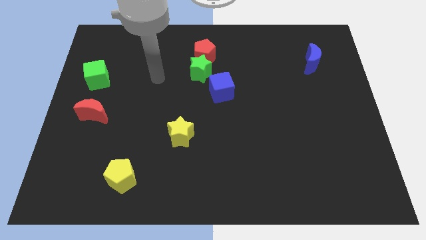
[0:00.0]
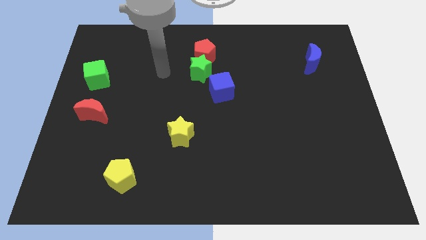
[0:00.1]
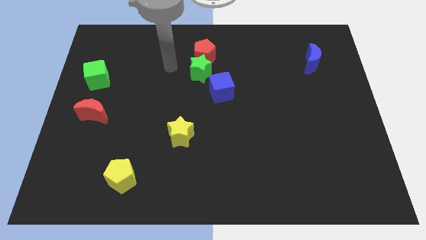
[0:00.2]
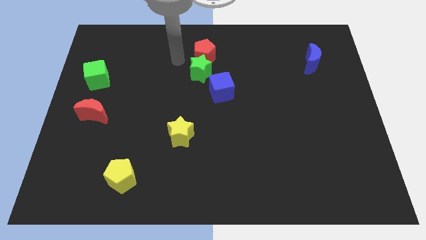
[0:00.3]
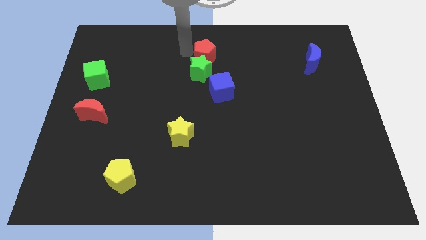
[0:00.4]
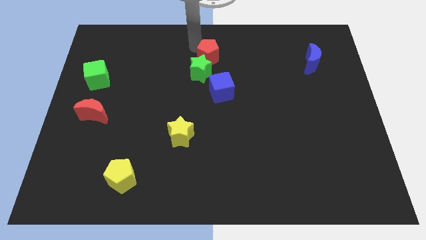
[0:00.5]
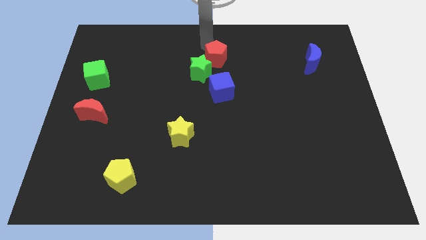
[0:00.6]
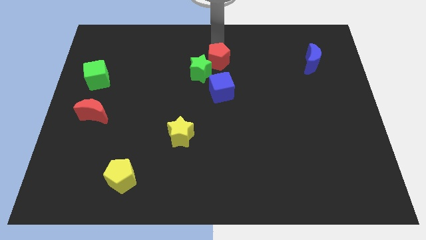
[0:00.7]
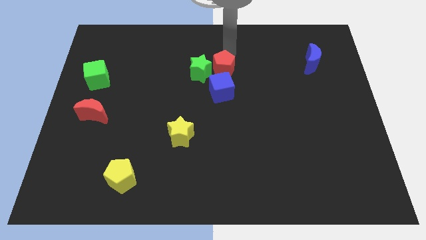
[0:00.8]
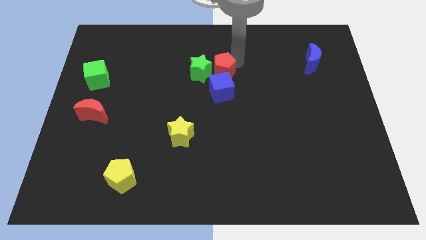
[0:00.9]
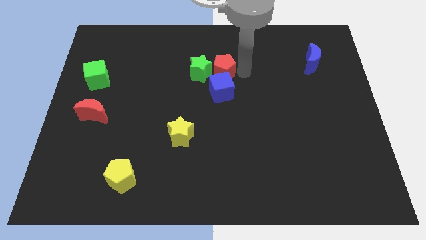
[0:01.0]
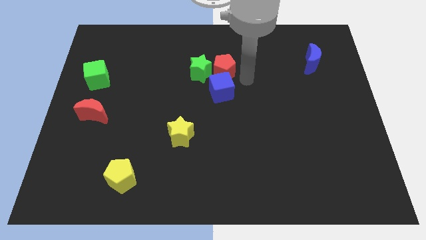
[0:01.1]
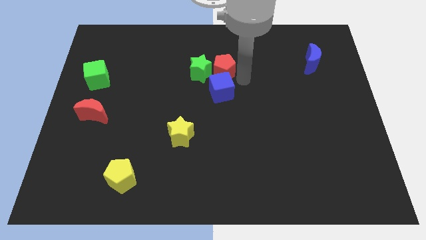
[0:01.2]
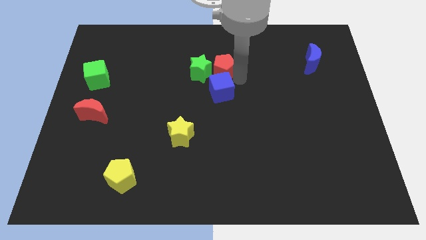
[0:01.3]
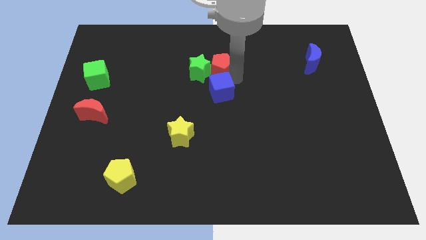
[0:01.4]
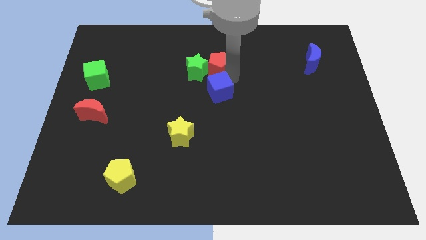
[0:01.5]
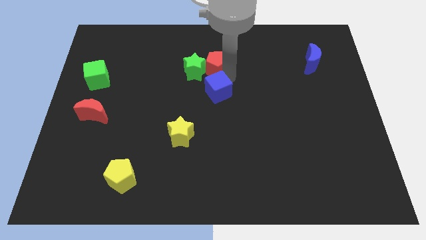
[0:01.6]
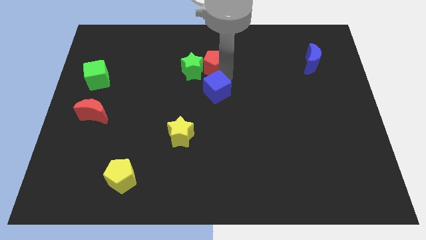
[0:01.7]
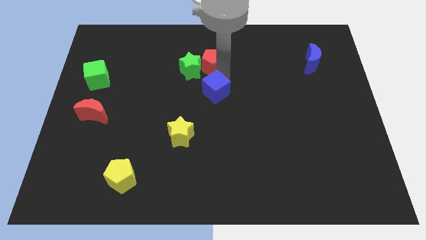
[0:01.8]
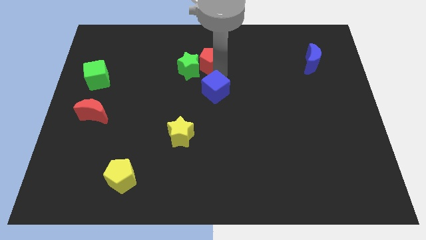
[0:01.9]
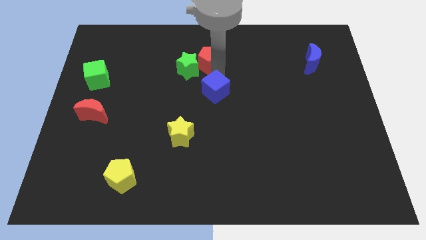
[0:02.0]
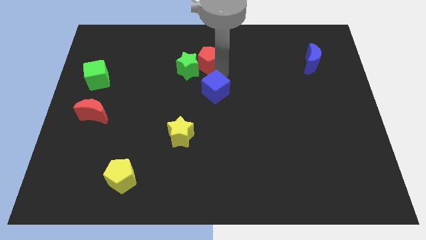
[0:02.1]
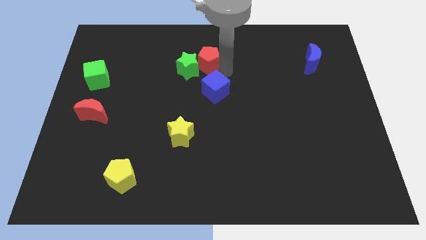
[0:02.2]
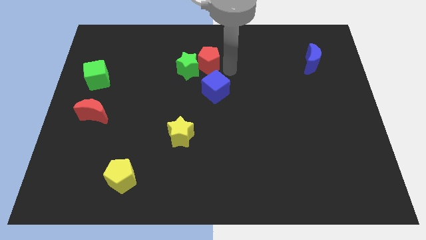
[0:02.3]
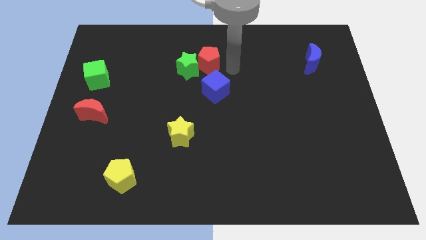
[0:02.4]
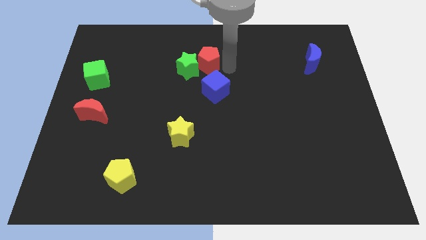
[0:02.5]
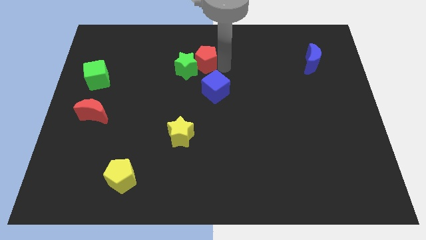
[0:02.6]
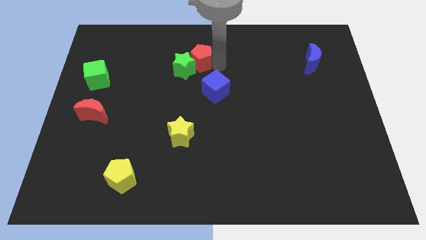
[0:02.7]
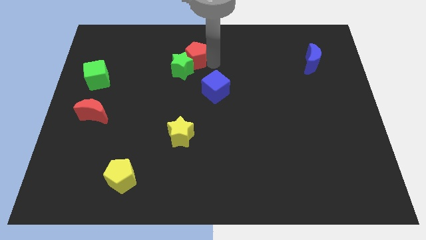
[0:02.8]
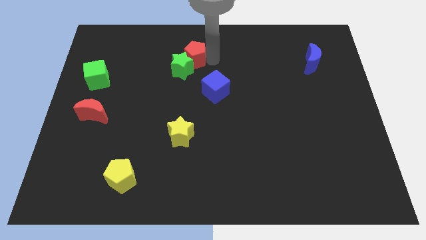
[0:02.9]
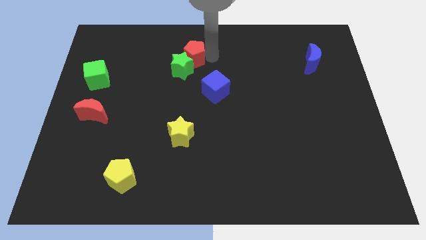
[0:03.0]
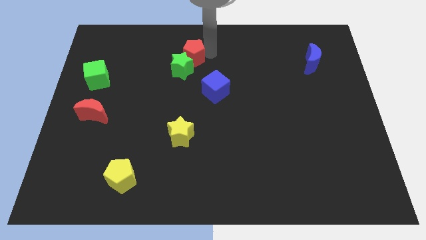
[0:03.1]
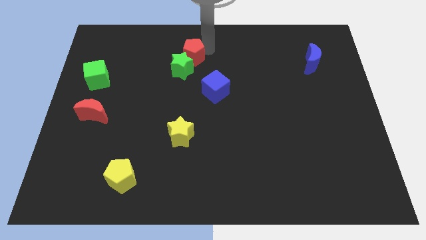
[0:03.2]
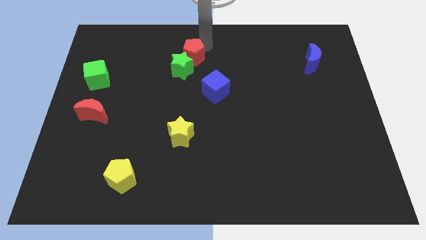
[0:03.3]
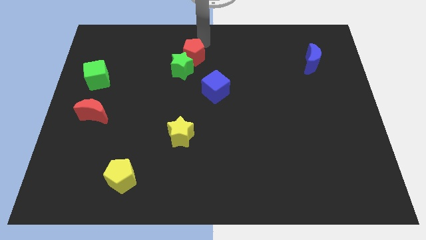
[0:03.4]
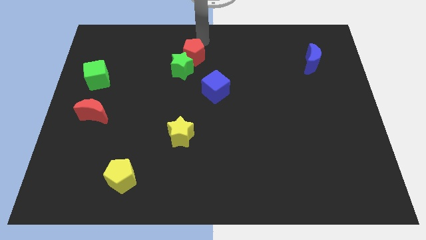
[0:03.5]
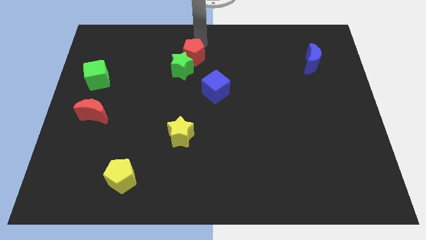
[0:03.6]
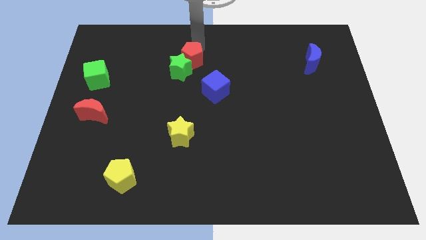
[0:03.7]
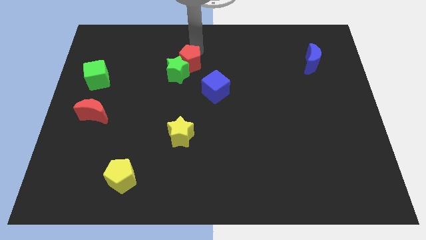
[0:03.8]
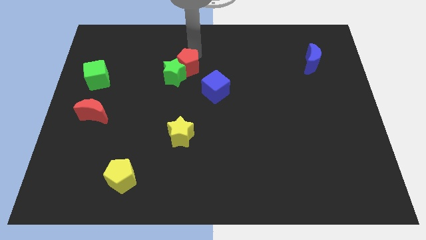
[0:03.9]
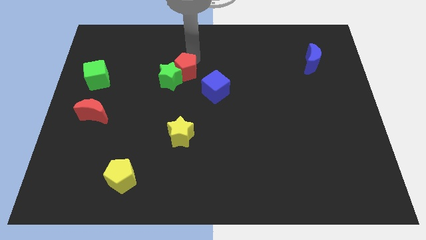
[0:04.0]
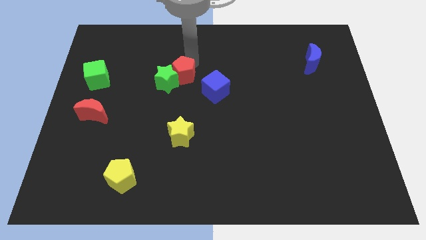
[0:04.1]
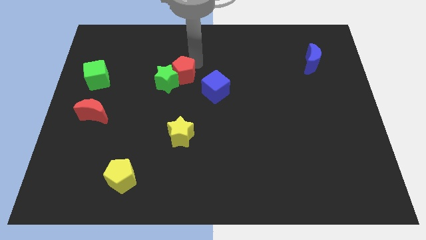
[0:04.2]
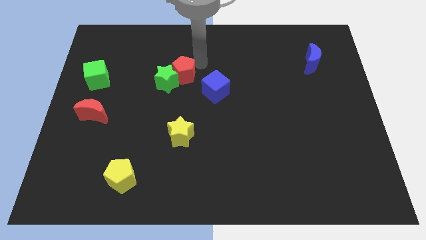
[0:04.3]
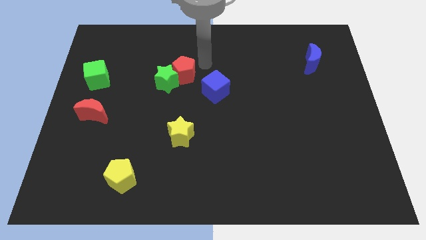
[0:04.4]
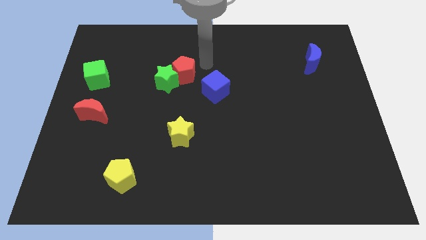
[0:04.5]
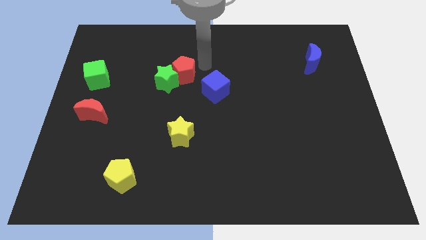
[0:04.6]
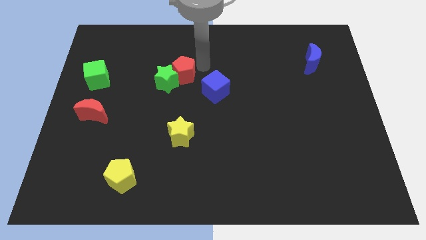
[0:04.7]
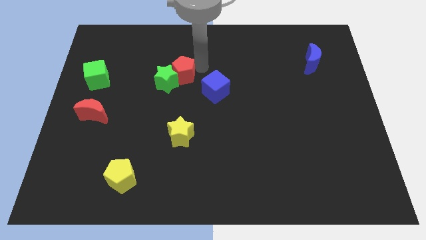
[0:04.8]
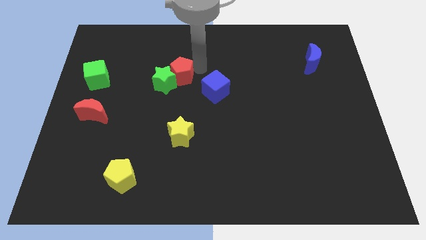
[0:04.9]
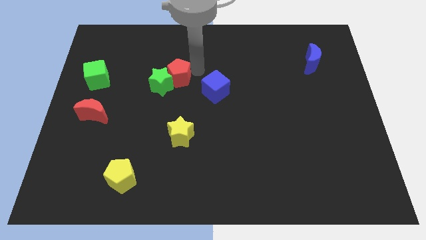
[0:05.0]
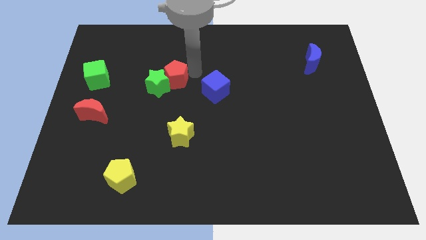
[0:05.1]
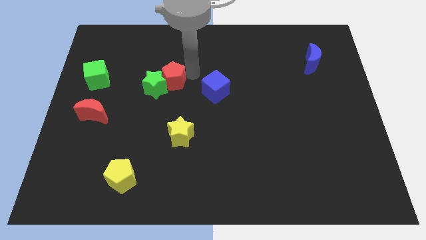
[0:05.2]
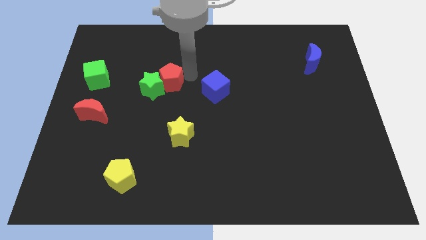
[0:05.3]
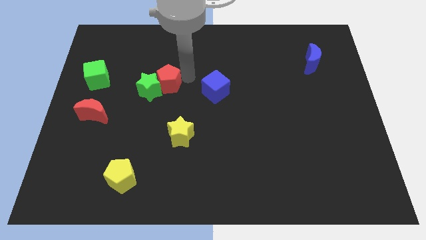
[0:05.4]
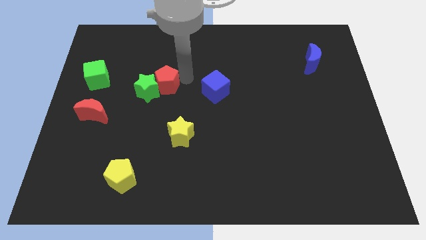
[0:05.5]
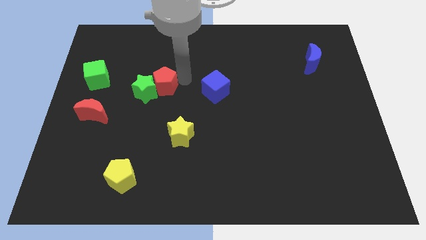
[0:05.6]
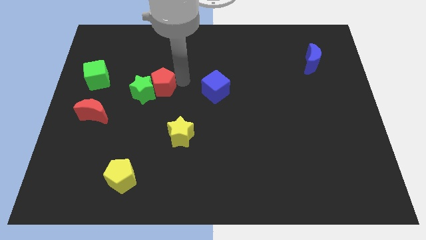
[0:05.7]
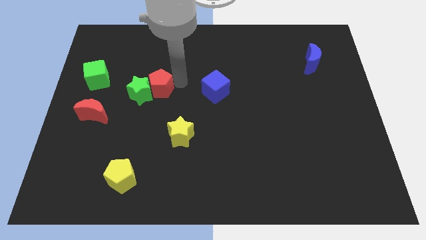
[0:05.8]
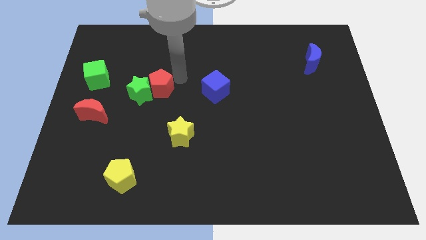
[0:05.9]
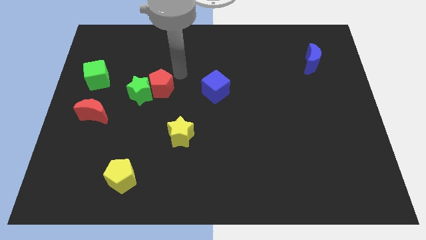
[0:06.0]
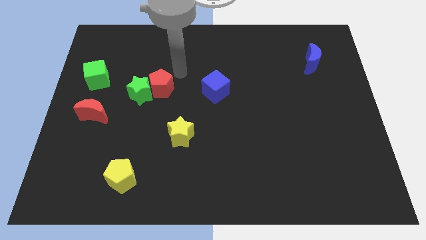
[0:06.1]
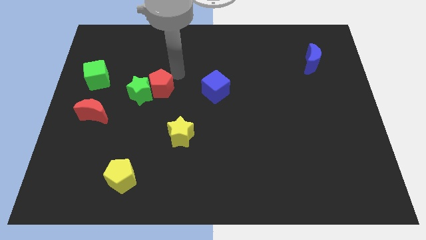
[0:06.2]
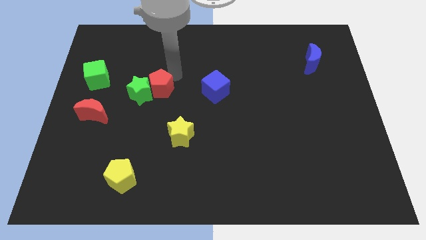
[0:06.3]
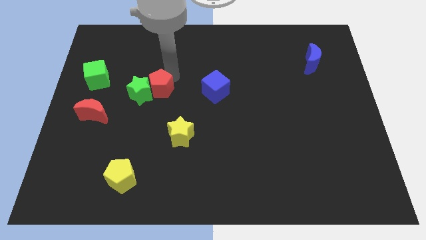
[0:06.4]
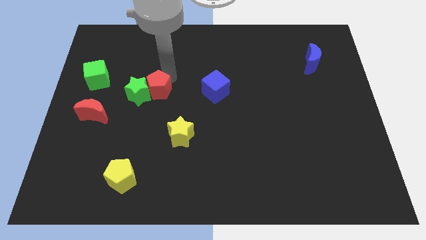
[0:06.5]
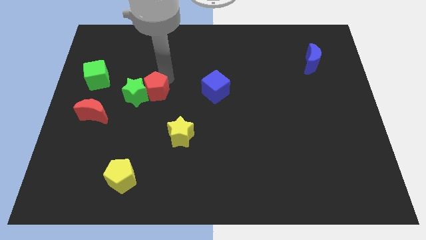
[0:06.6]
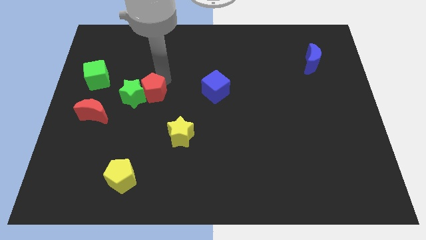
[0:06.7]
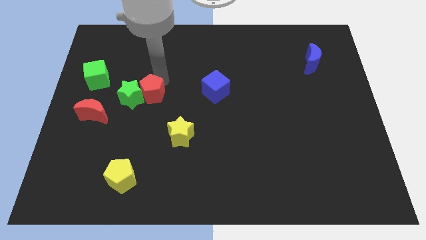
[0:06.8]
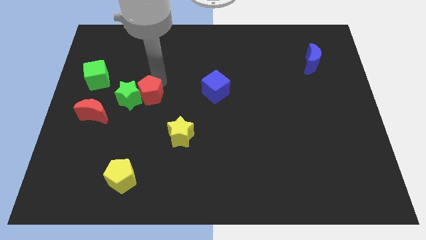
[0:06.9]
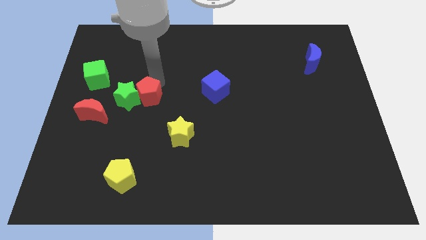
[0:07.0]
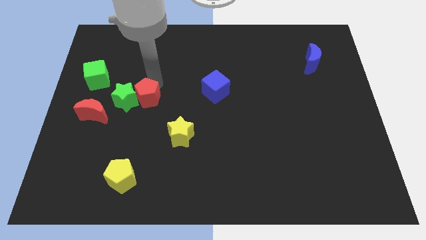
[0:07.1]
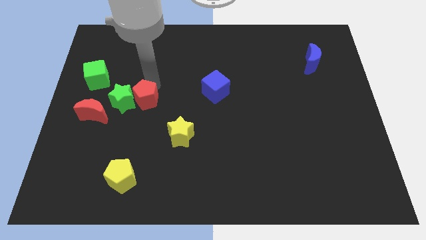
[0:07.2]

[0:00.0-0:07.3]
slide the red pentagon downwards and then to the left

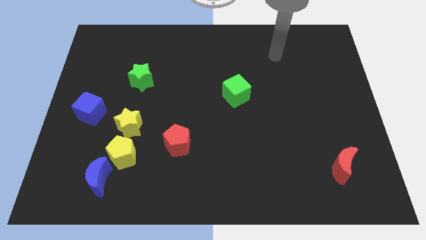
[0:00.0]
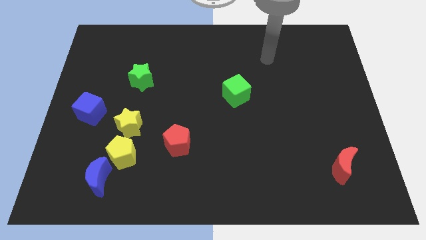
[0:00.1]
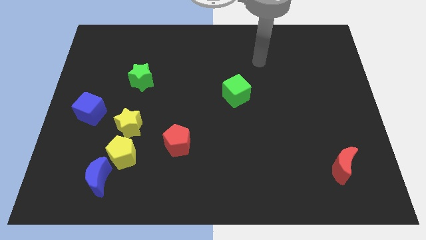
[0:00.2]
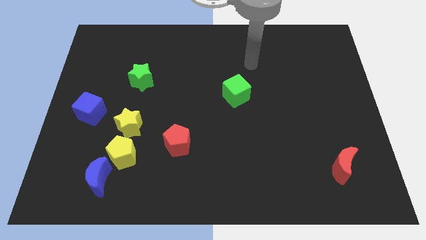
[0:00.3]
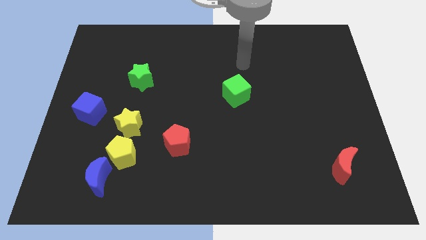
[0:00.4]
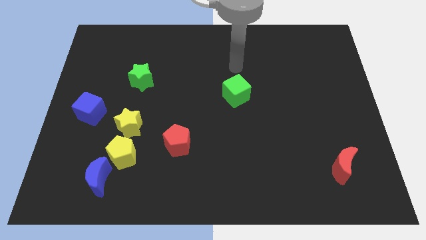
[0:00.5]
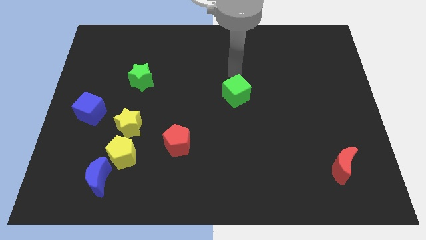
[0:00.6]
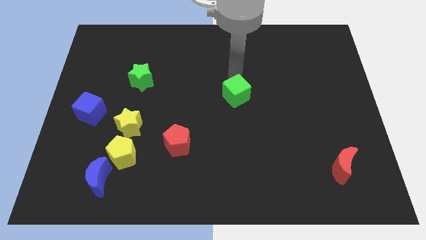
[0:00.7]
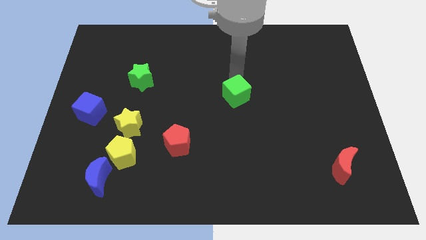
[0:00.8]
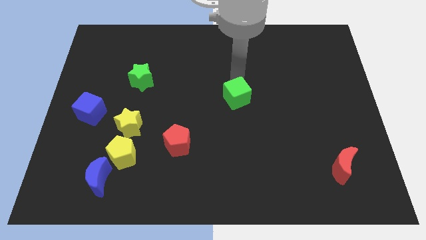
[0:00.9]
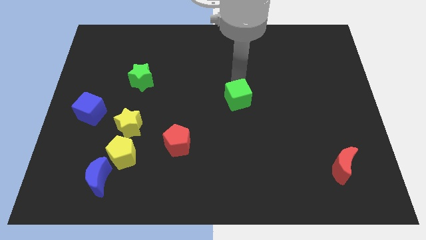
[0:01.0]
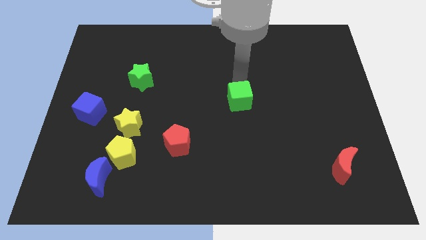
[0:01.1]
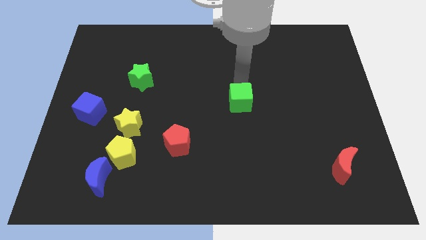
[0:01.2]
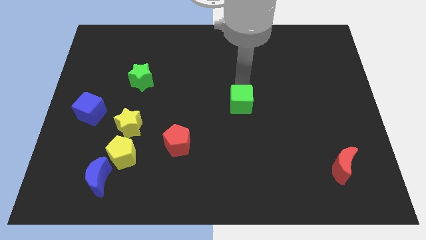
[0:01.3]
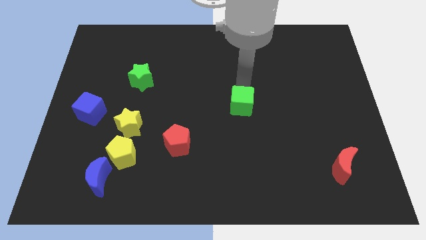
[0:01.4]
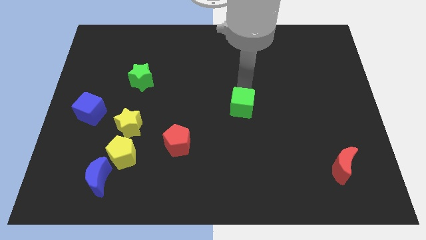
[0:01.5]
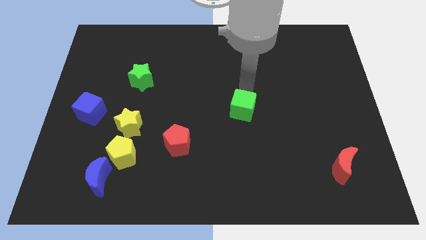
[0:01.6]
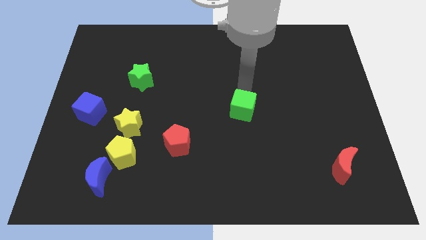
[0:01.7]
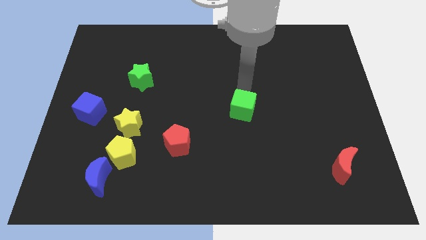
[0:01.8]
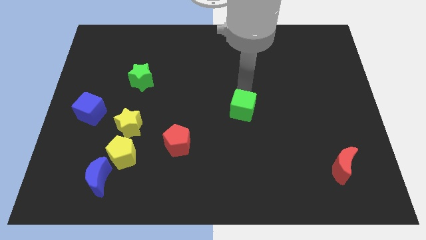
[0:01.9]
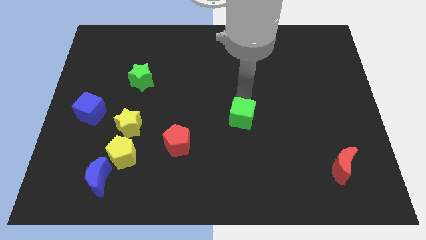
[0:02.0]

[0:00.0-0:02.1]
slide the green cube slightly down
